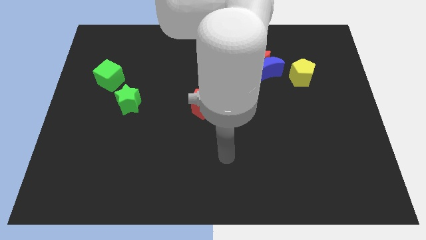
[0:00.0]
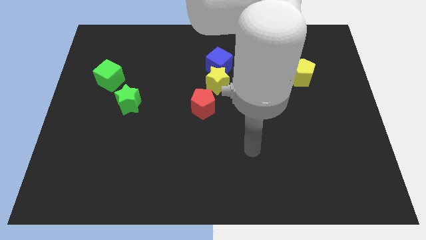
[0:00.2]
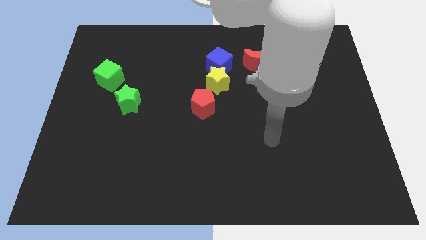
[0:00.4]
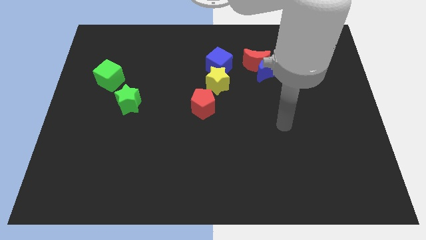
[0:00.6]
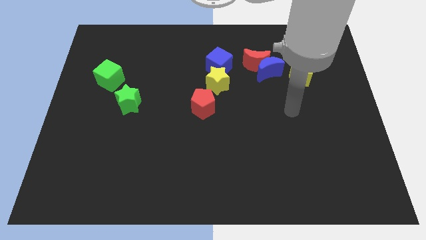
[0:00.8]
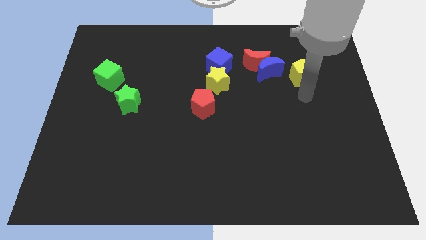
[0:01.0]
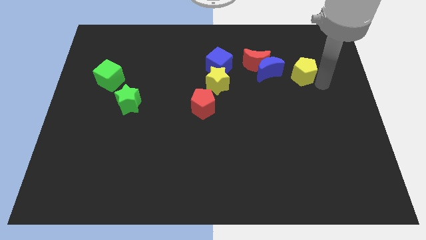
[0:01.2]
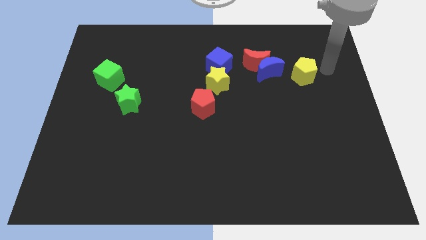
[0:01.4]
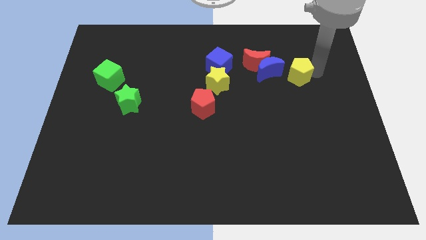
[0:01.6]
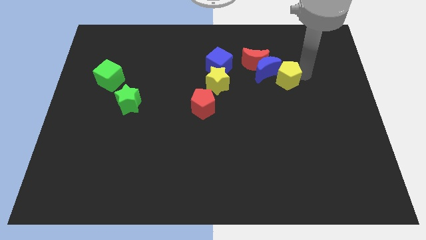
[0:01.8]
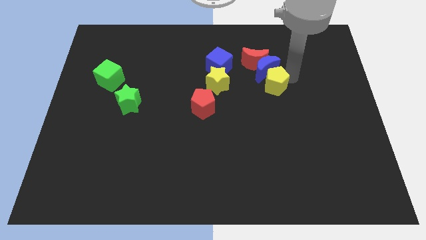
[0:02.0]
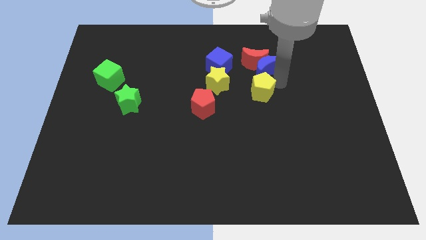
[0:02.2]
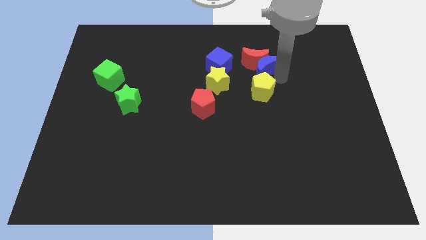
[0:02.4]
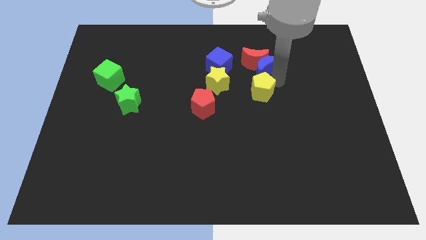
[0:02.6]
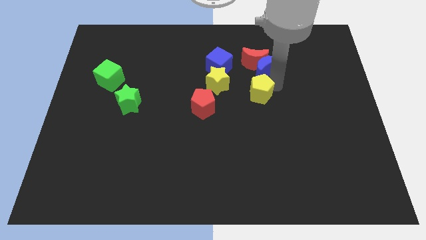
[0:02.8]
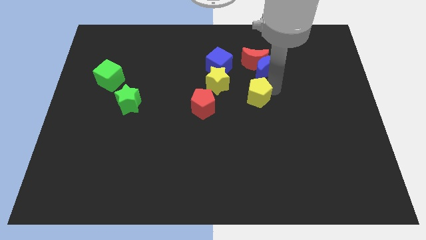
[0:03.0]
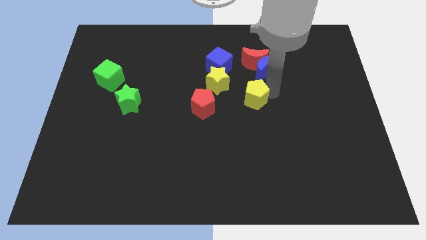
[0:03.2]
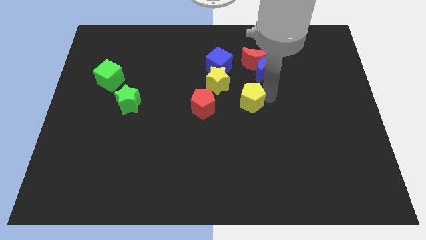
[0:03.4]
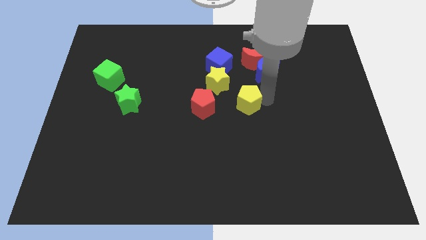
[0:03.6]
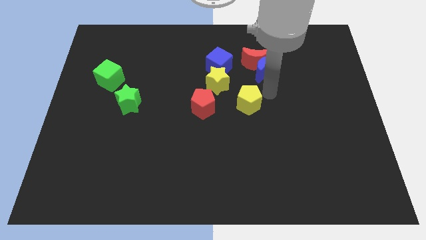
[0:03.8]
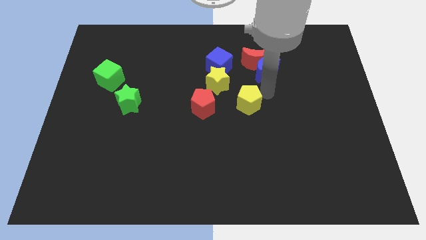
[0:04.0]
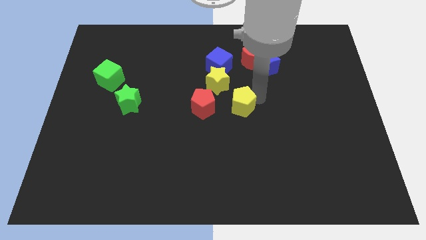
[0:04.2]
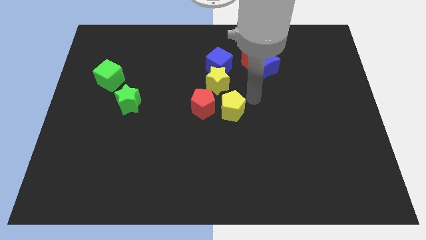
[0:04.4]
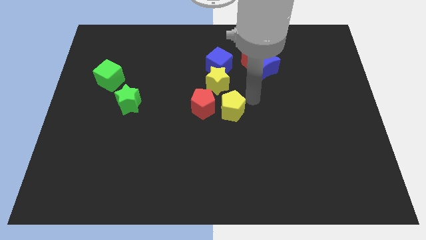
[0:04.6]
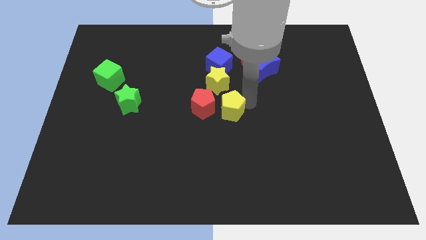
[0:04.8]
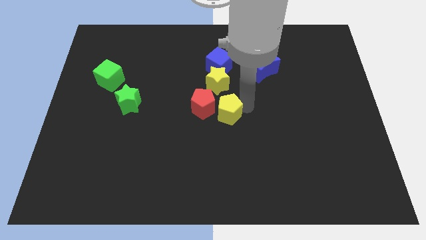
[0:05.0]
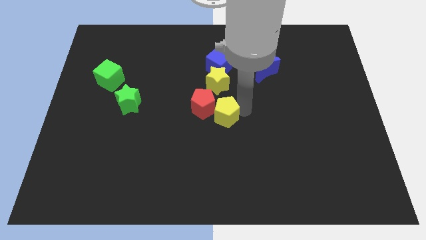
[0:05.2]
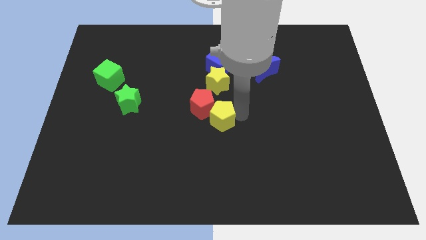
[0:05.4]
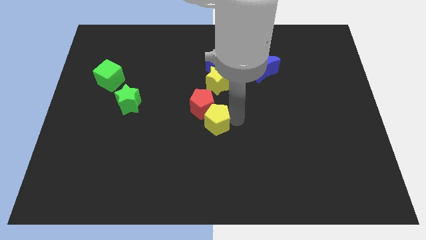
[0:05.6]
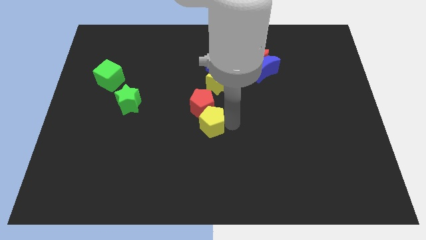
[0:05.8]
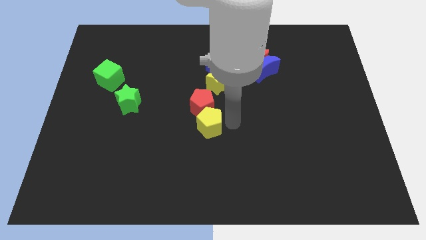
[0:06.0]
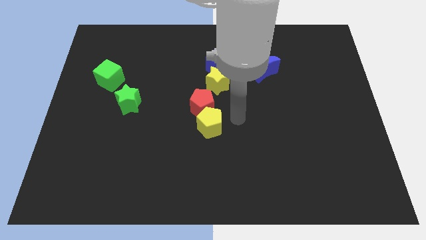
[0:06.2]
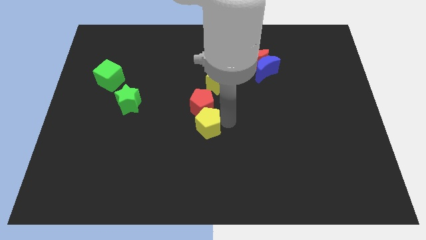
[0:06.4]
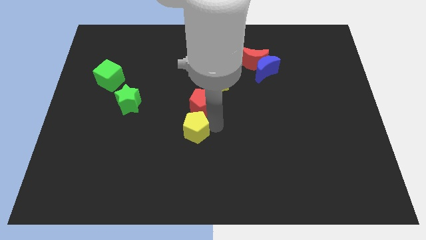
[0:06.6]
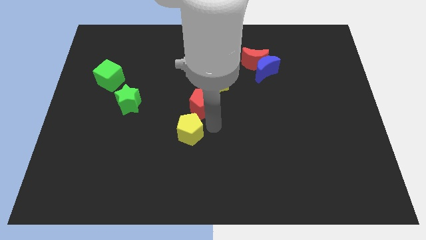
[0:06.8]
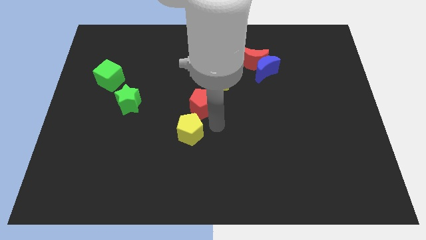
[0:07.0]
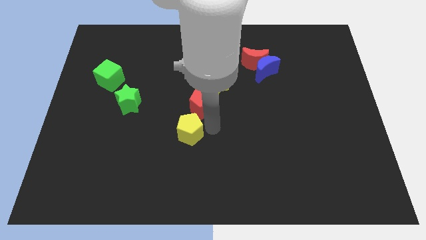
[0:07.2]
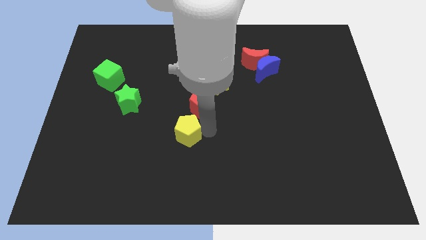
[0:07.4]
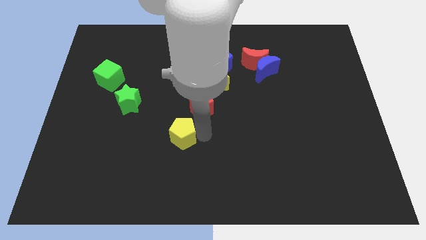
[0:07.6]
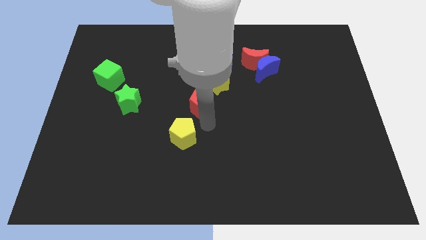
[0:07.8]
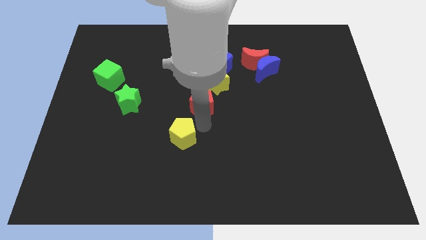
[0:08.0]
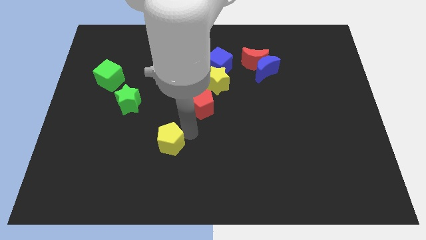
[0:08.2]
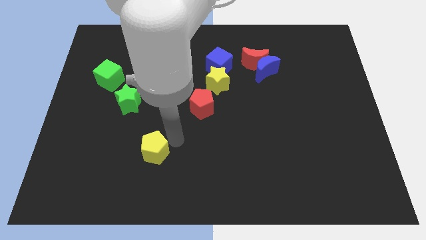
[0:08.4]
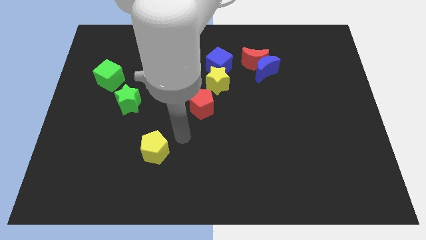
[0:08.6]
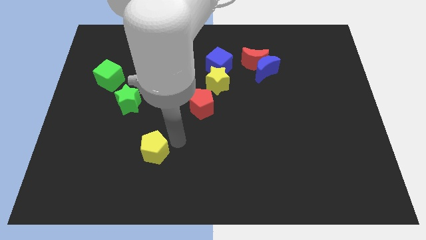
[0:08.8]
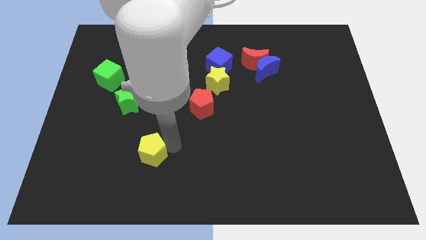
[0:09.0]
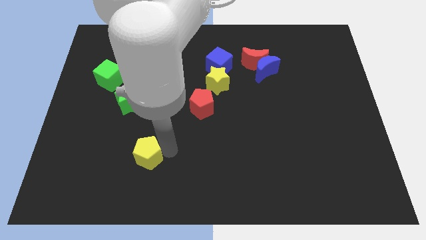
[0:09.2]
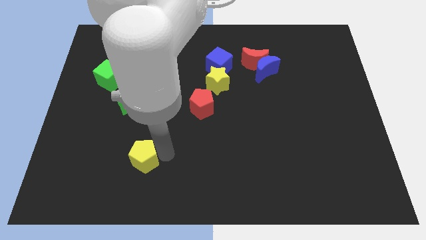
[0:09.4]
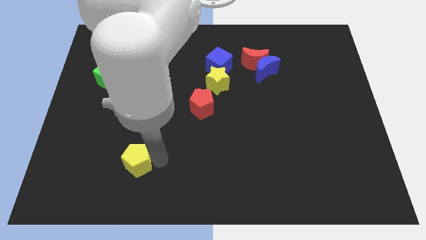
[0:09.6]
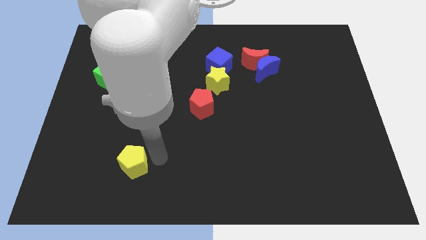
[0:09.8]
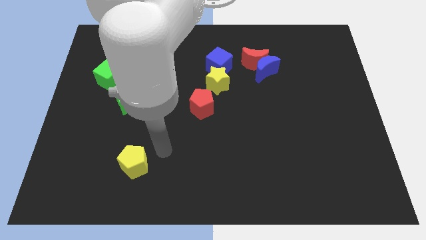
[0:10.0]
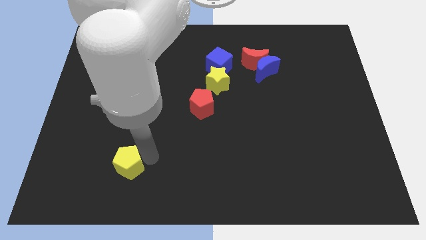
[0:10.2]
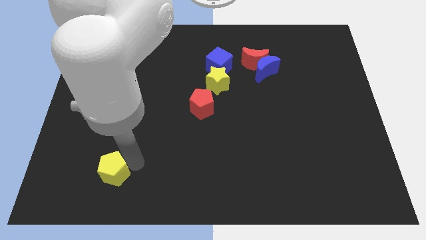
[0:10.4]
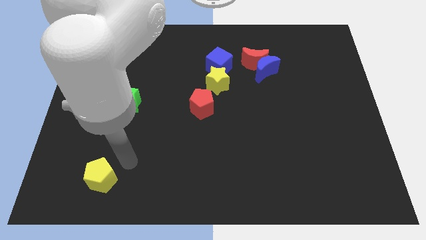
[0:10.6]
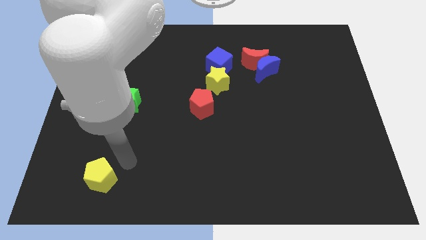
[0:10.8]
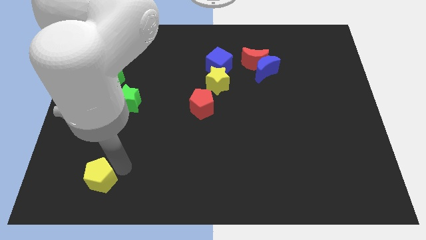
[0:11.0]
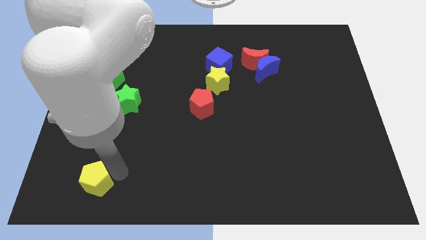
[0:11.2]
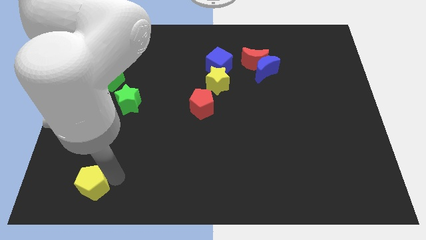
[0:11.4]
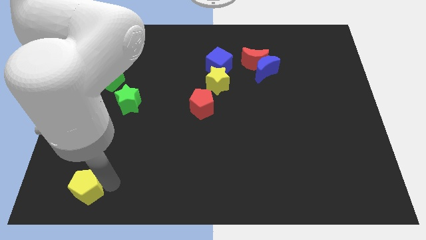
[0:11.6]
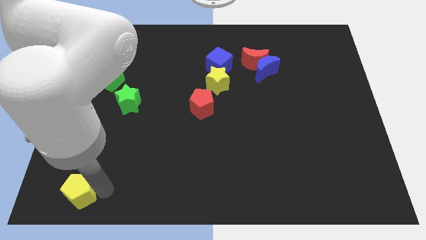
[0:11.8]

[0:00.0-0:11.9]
push the yellow pentagon to the bottom left corner
